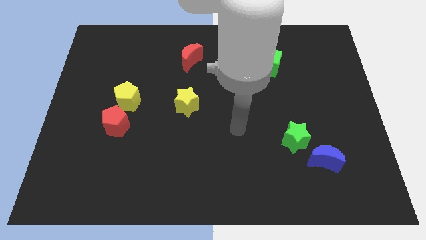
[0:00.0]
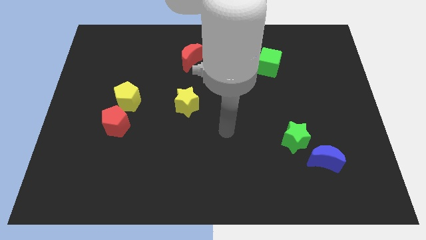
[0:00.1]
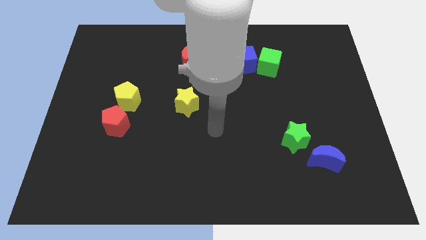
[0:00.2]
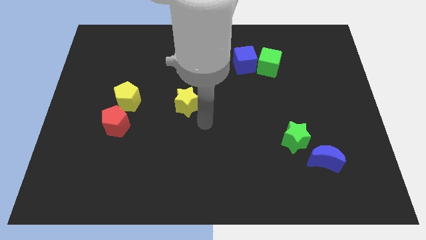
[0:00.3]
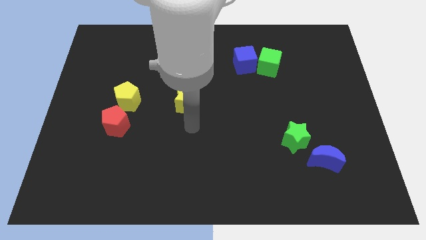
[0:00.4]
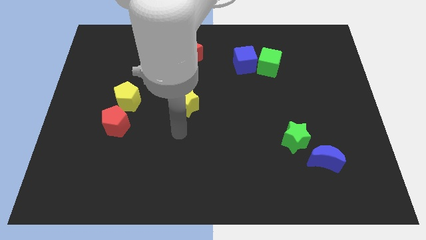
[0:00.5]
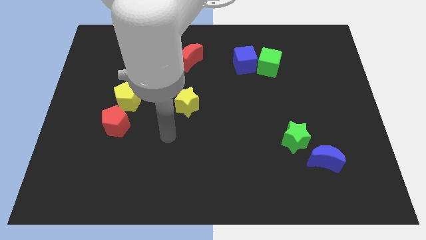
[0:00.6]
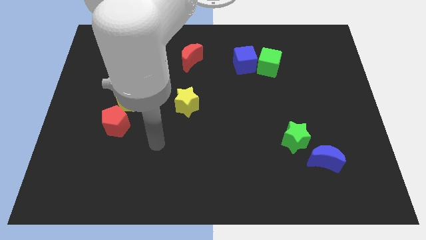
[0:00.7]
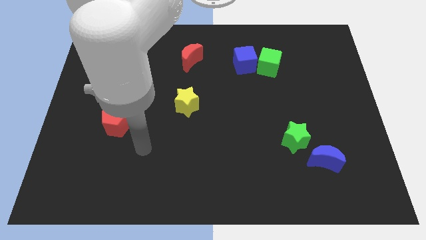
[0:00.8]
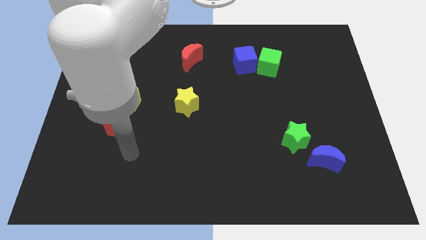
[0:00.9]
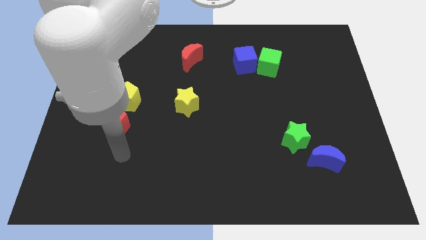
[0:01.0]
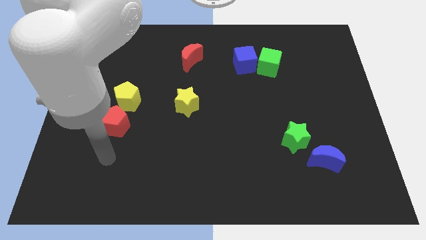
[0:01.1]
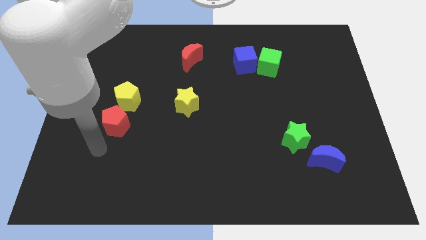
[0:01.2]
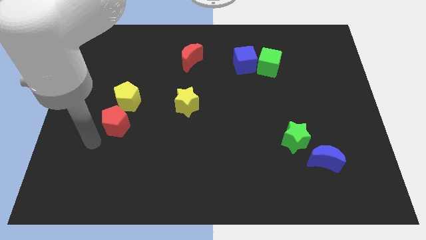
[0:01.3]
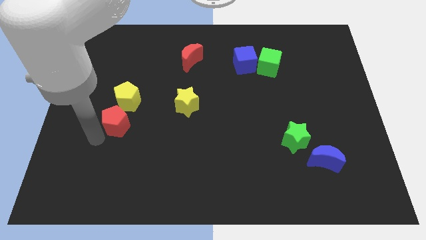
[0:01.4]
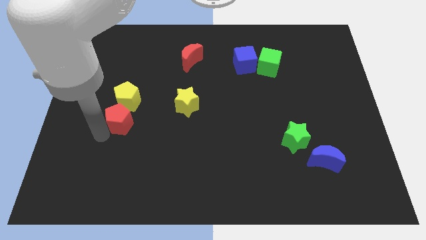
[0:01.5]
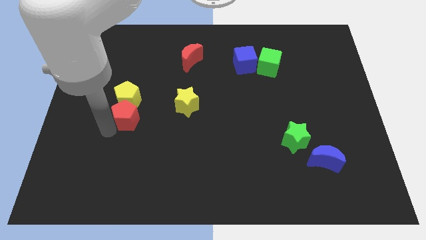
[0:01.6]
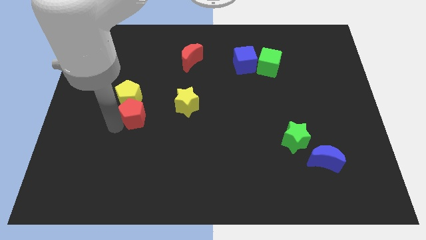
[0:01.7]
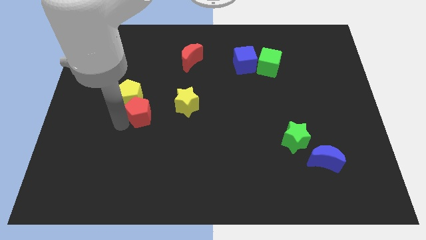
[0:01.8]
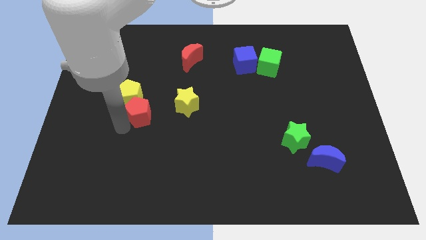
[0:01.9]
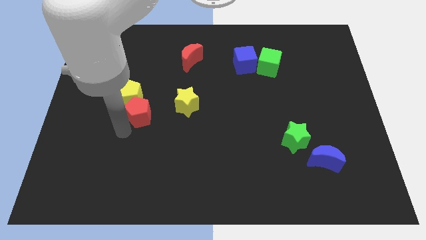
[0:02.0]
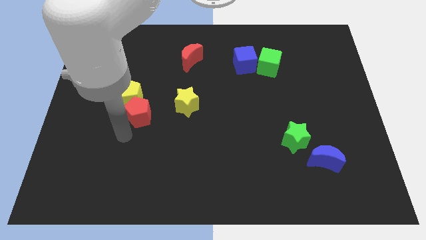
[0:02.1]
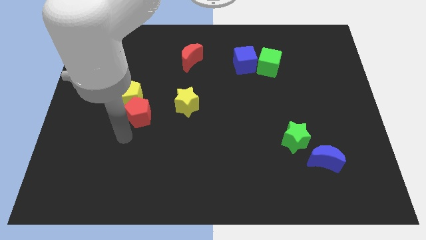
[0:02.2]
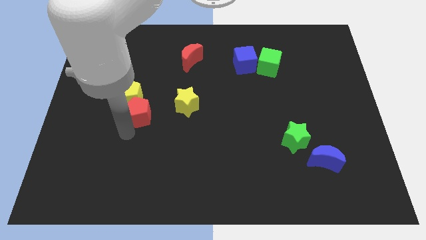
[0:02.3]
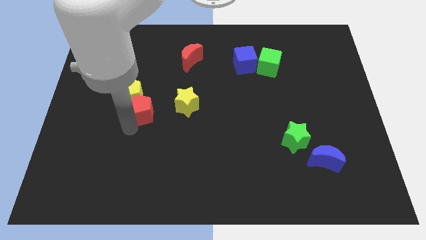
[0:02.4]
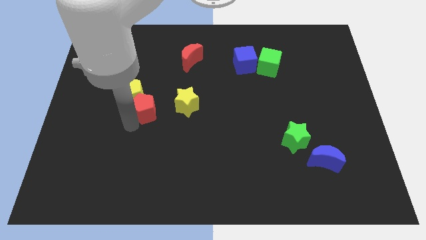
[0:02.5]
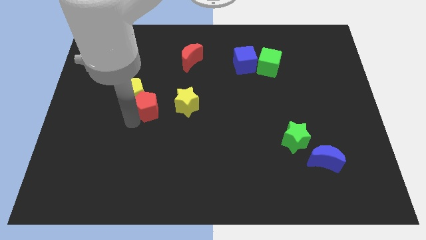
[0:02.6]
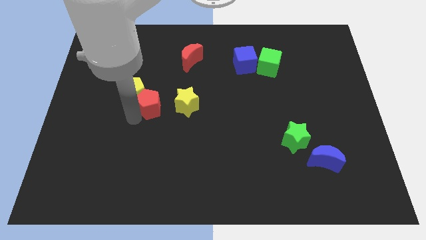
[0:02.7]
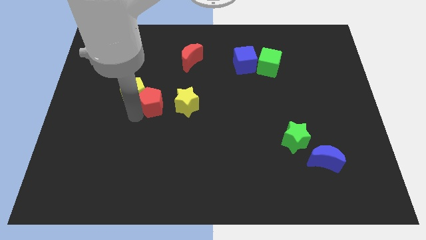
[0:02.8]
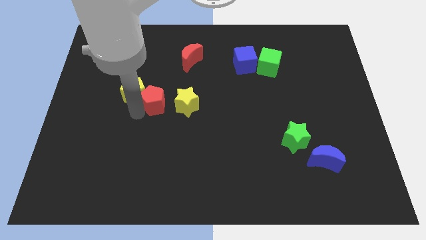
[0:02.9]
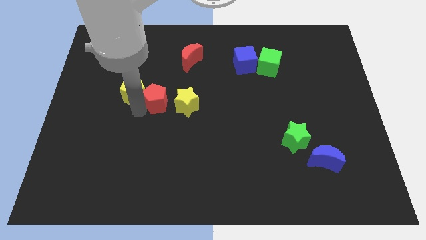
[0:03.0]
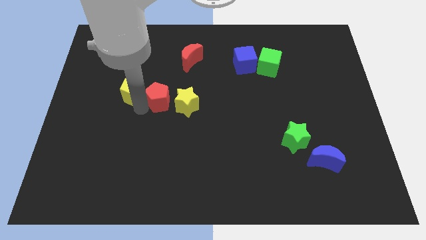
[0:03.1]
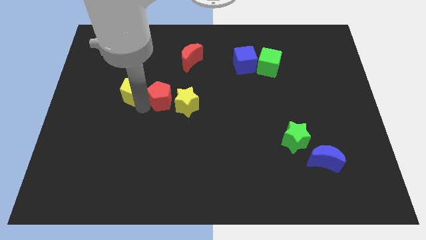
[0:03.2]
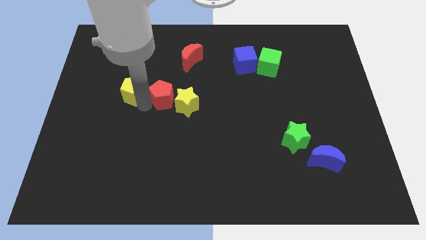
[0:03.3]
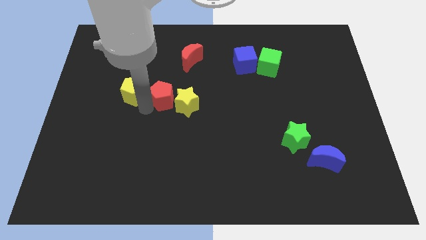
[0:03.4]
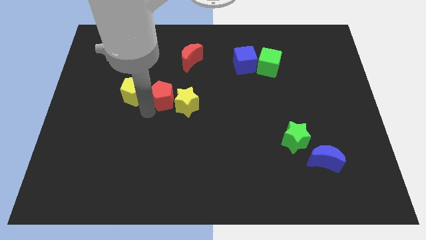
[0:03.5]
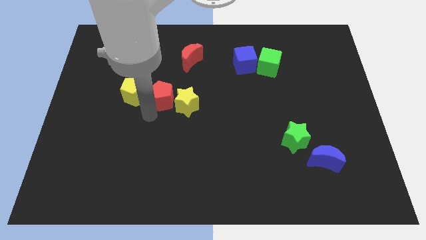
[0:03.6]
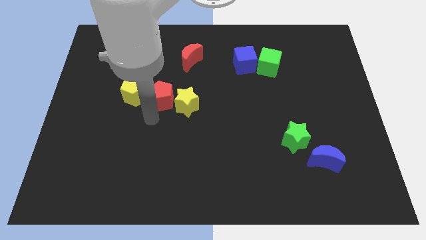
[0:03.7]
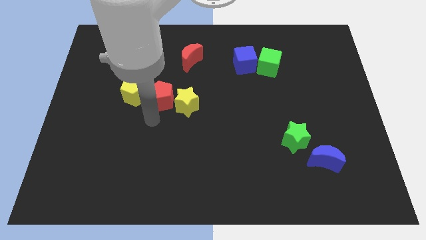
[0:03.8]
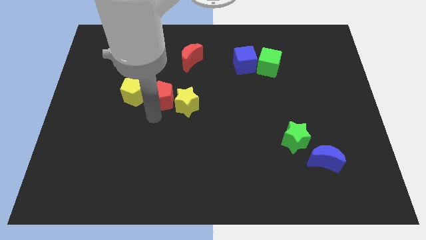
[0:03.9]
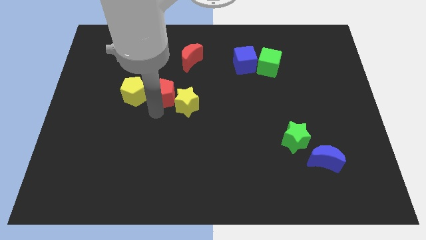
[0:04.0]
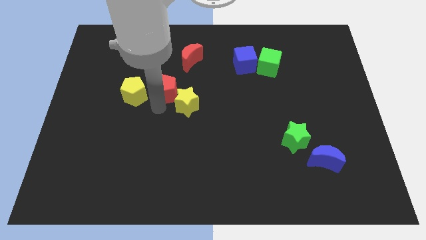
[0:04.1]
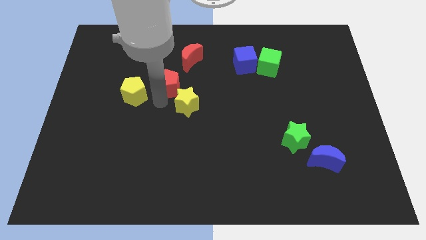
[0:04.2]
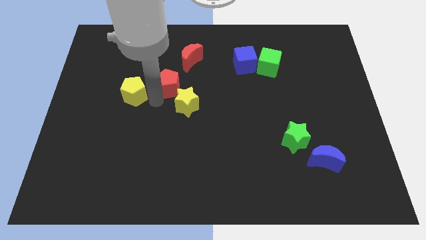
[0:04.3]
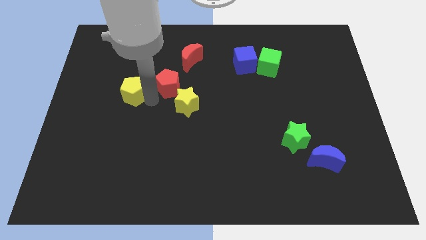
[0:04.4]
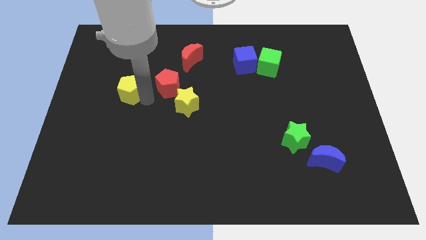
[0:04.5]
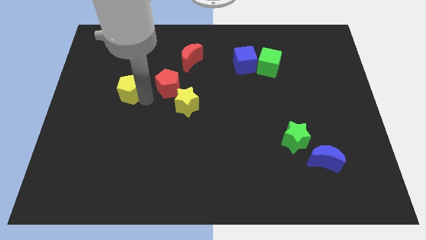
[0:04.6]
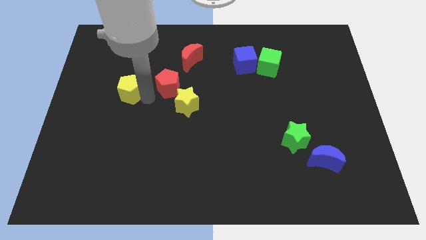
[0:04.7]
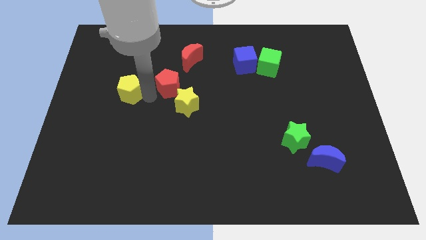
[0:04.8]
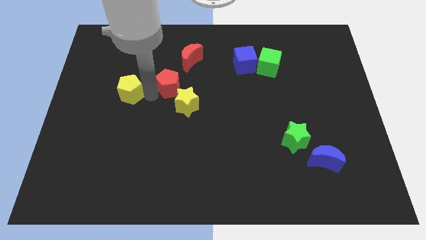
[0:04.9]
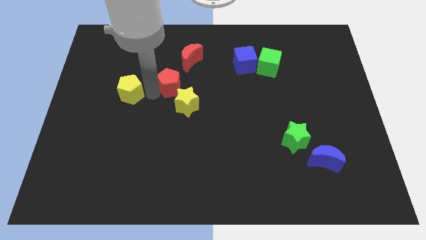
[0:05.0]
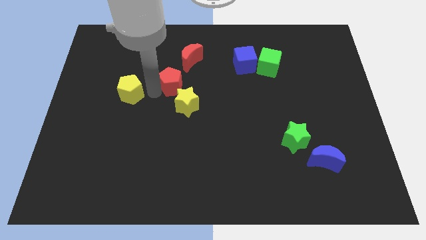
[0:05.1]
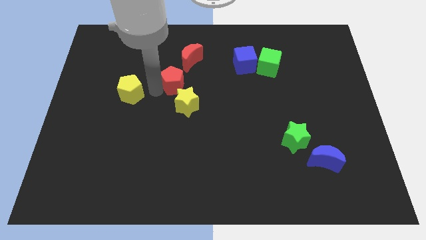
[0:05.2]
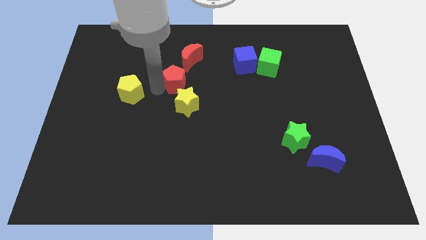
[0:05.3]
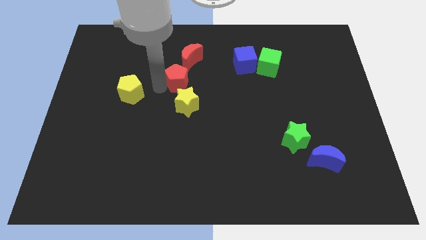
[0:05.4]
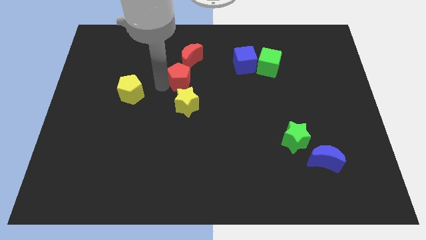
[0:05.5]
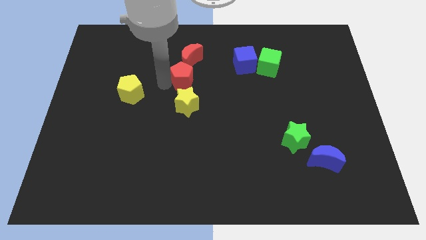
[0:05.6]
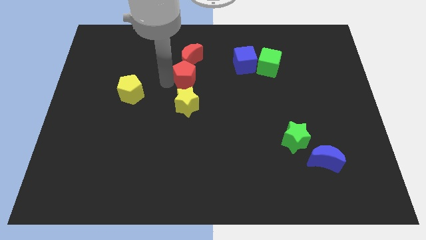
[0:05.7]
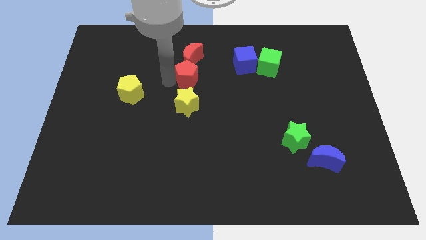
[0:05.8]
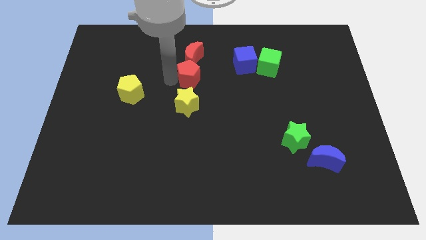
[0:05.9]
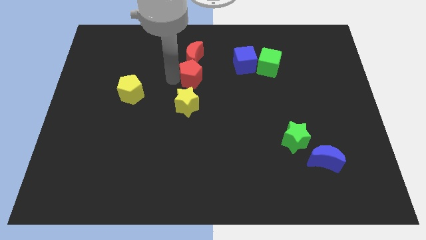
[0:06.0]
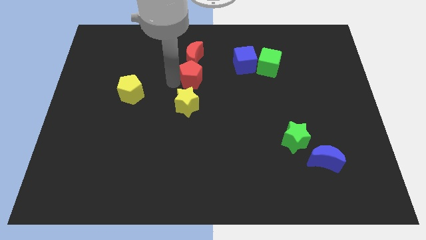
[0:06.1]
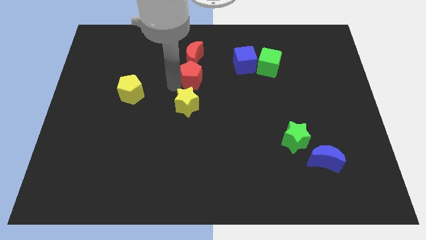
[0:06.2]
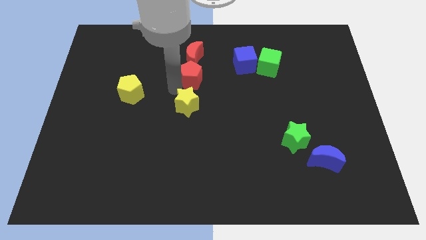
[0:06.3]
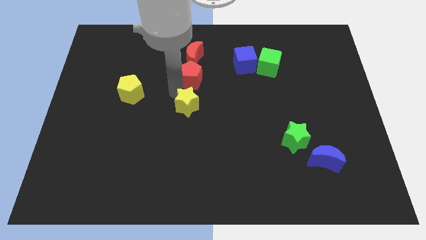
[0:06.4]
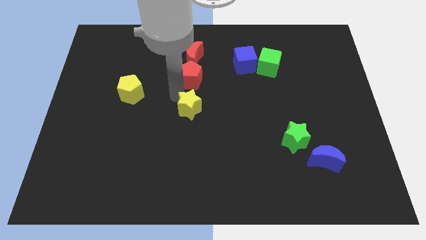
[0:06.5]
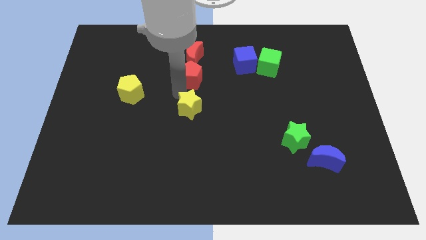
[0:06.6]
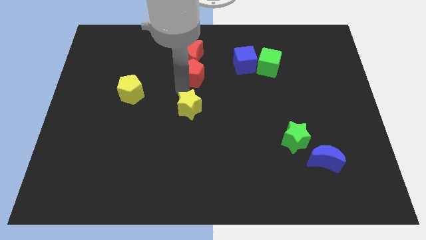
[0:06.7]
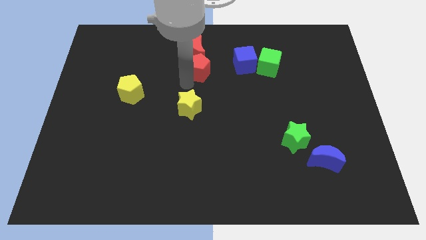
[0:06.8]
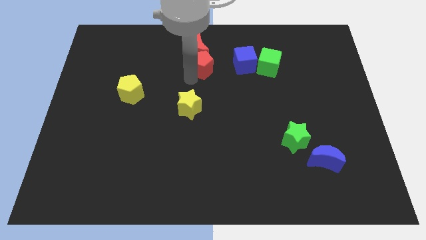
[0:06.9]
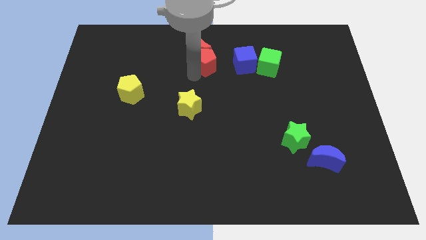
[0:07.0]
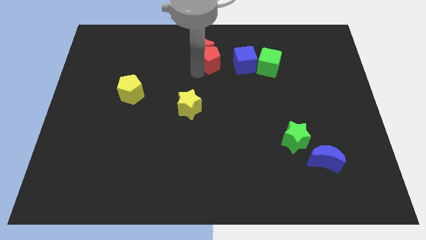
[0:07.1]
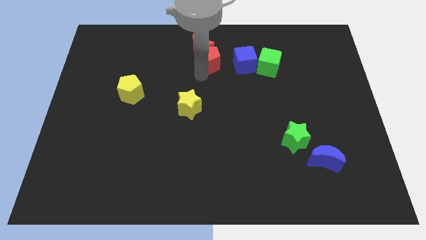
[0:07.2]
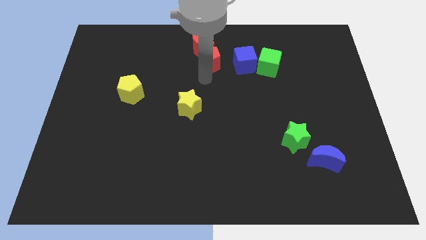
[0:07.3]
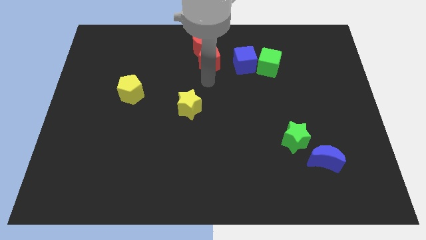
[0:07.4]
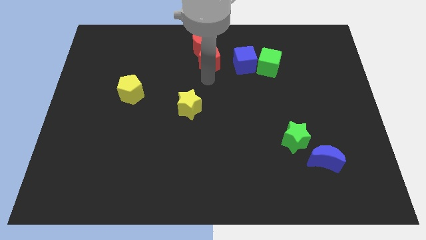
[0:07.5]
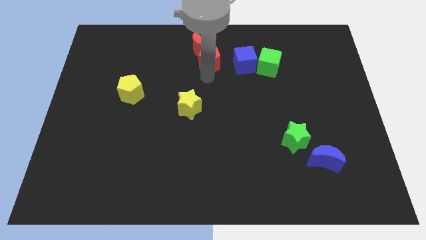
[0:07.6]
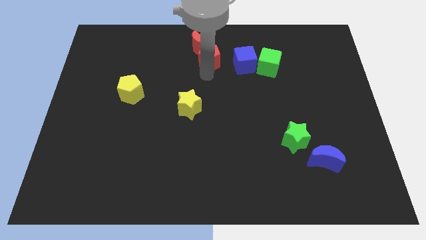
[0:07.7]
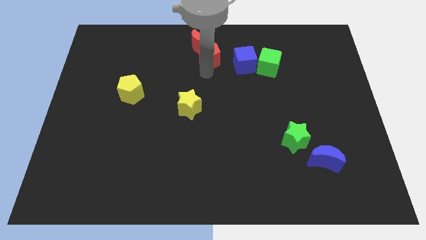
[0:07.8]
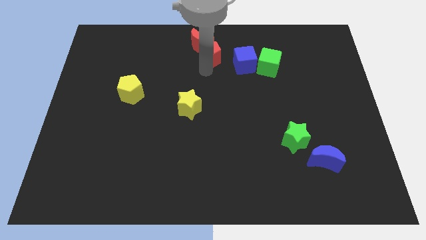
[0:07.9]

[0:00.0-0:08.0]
push the red pentagon to the top
